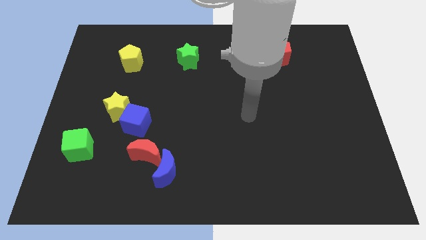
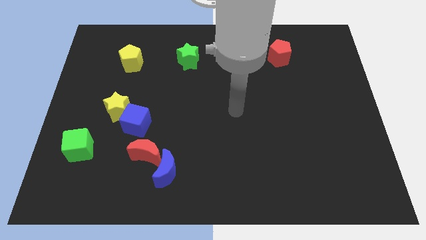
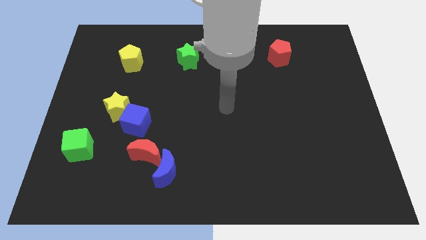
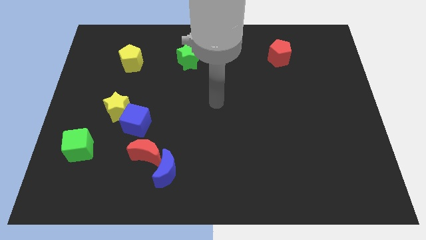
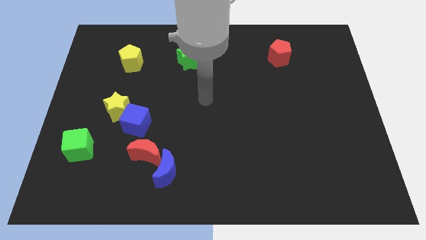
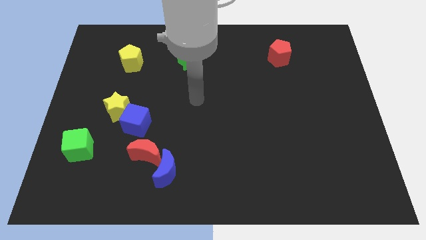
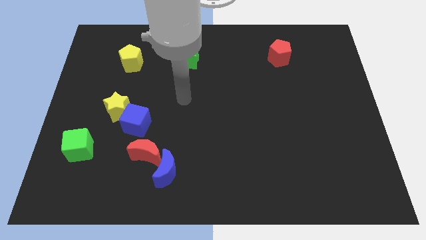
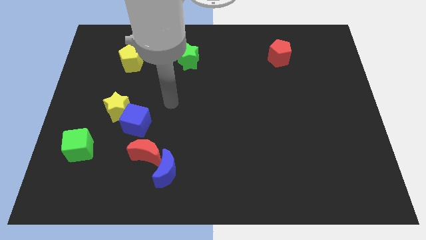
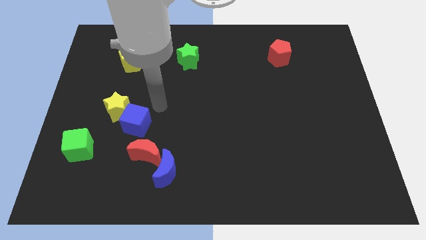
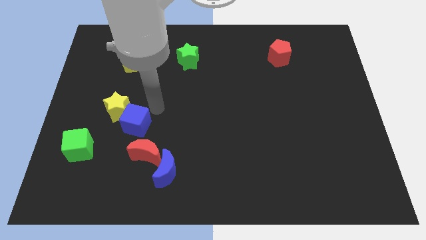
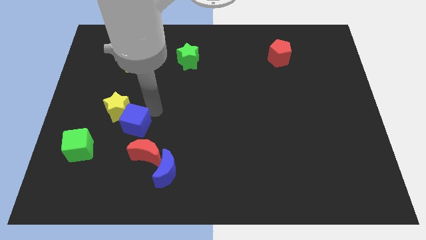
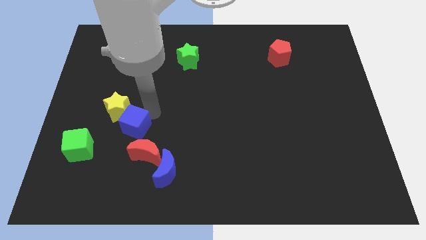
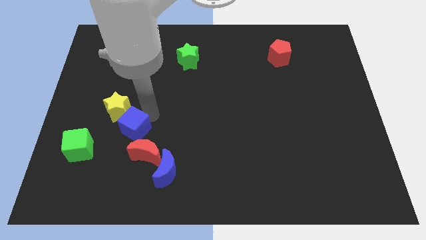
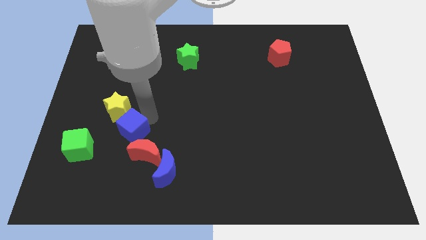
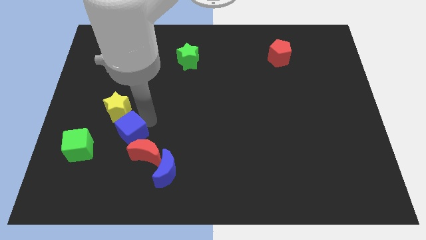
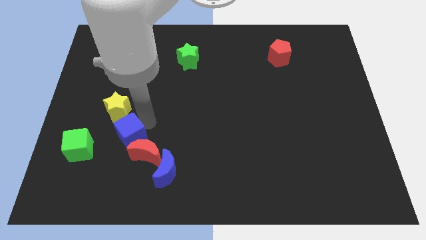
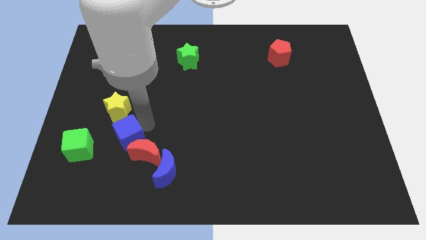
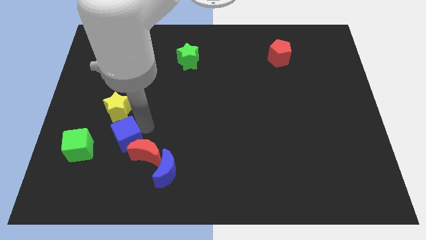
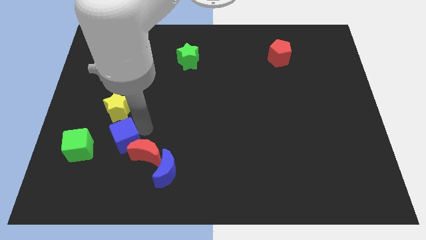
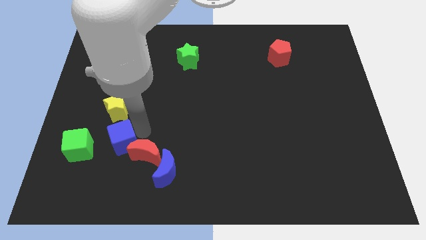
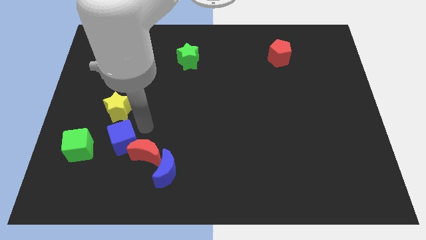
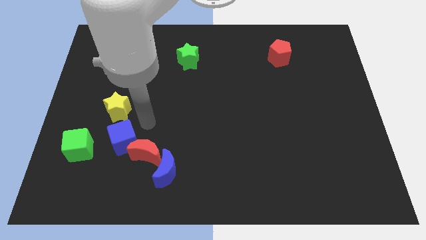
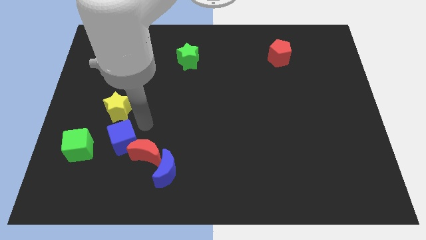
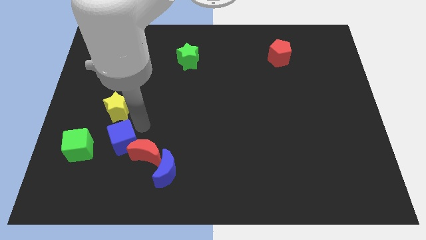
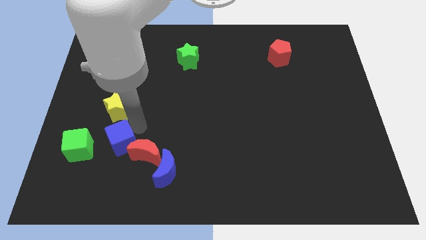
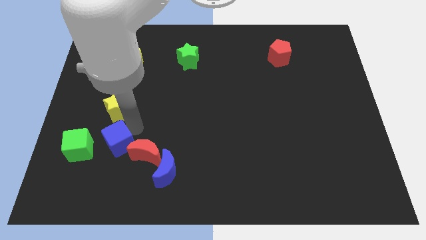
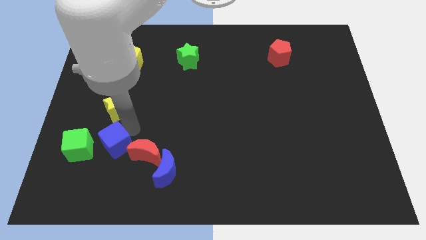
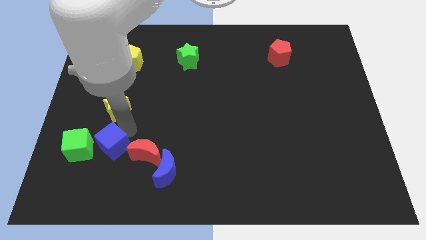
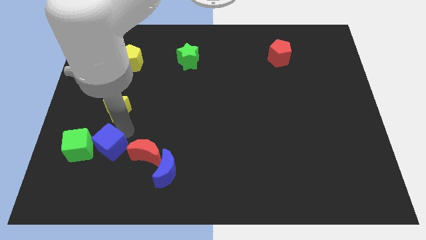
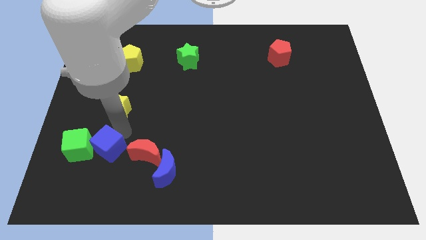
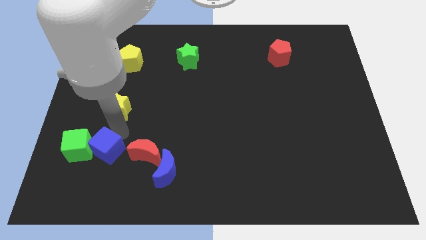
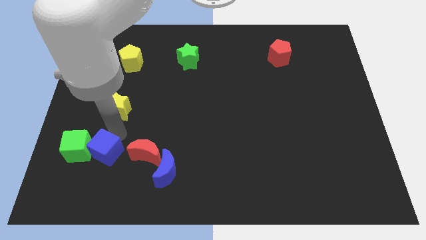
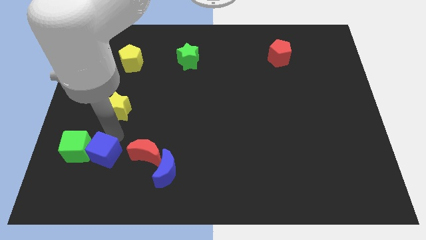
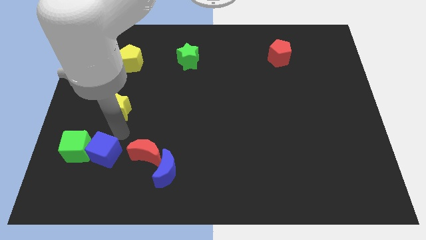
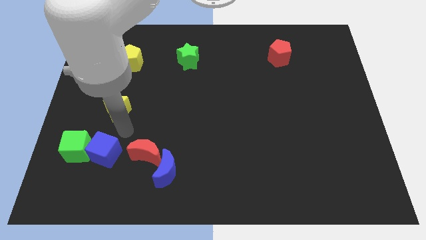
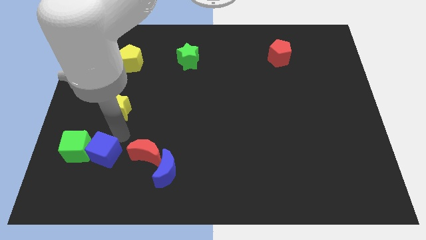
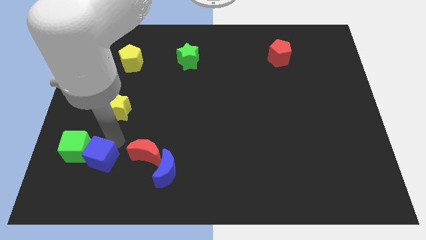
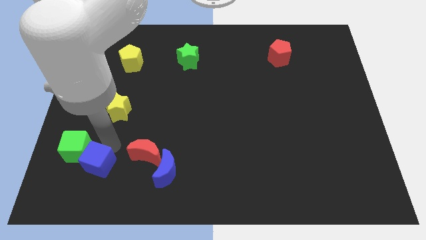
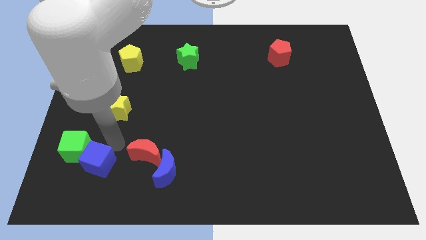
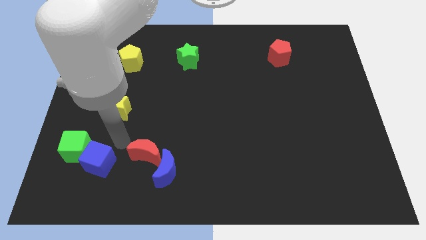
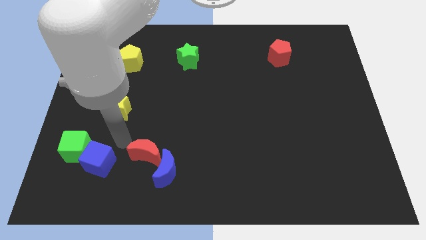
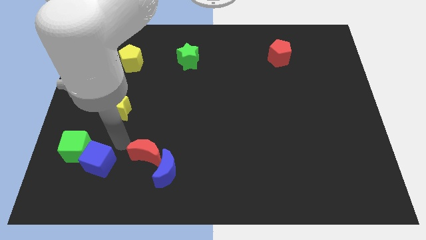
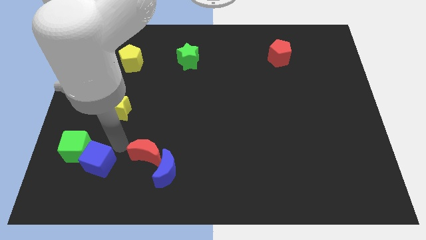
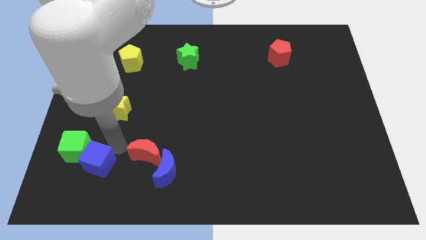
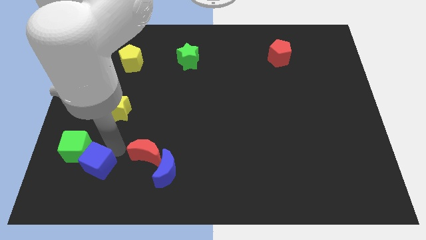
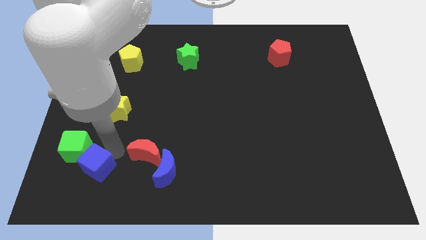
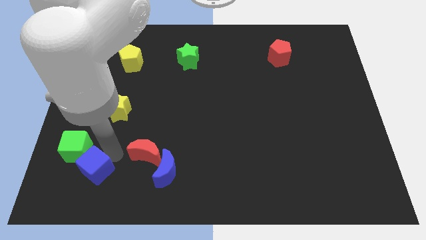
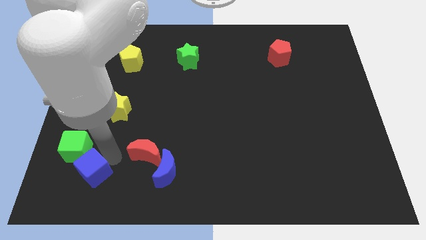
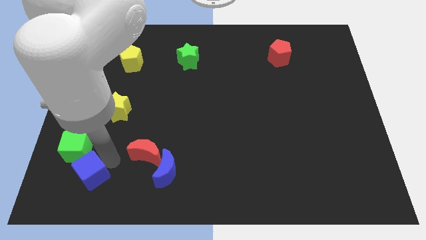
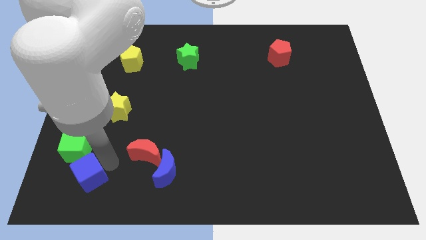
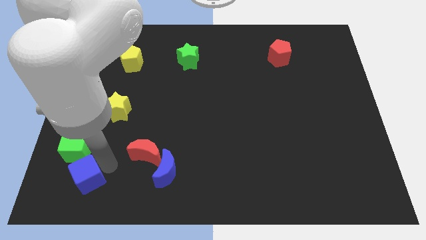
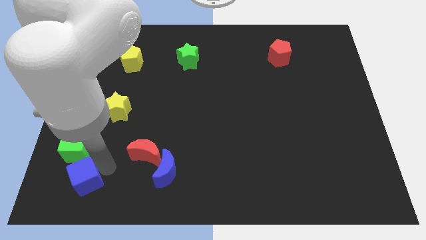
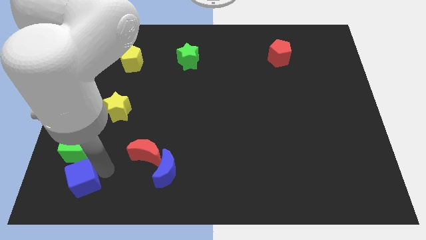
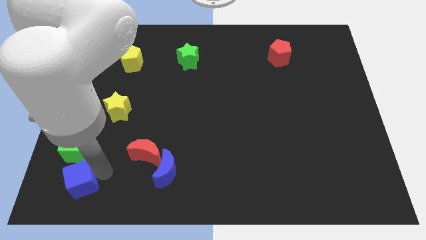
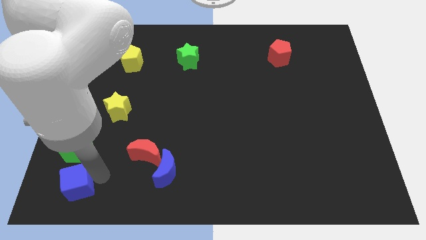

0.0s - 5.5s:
push the blue cube to the bottom left of the board

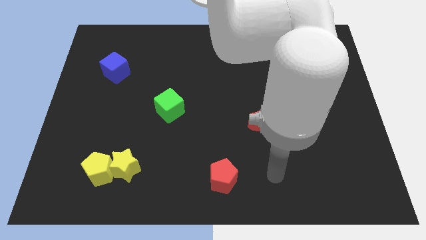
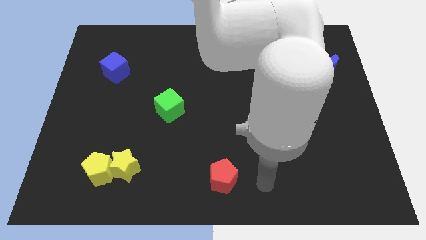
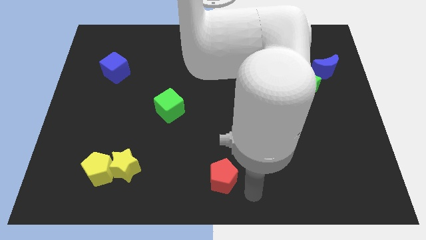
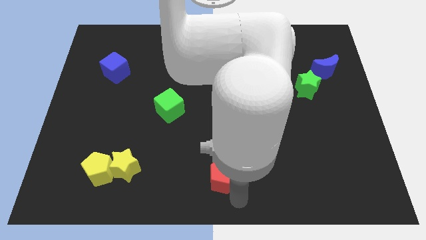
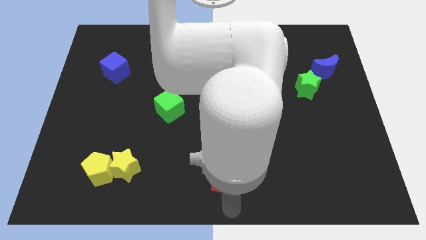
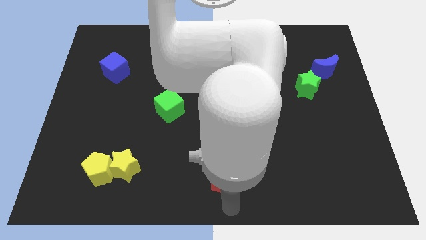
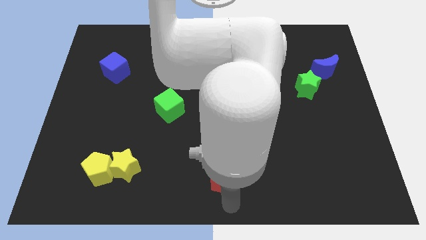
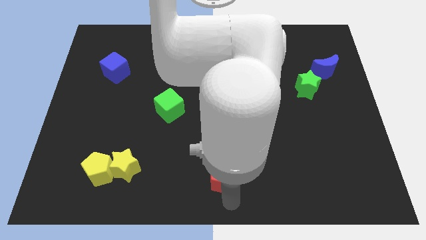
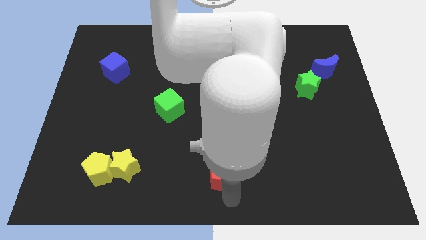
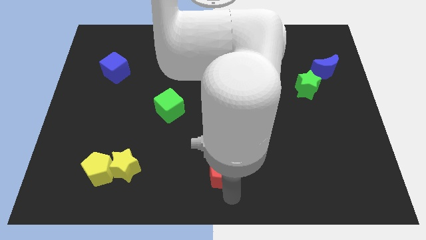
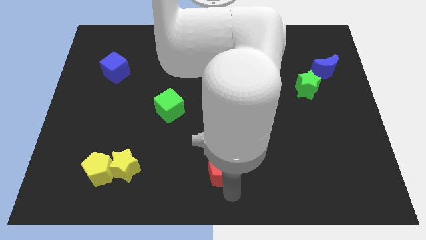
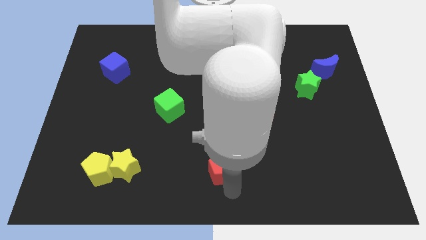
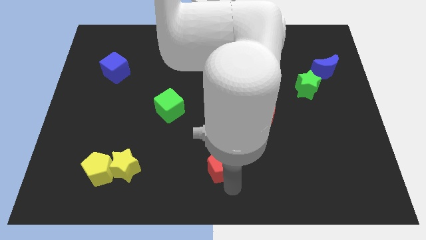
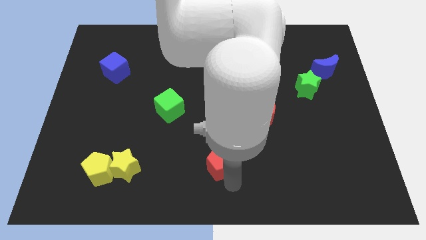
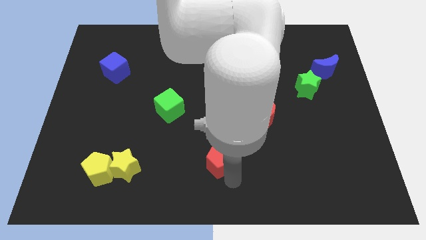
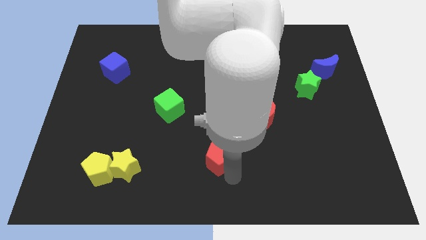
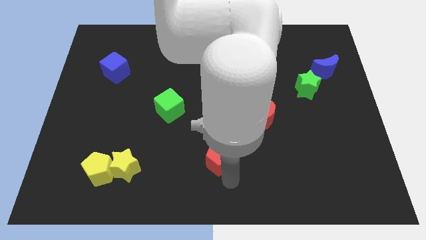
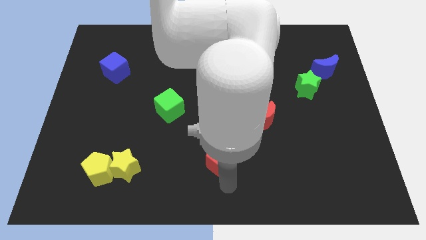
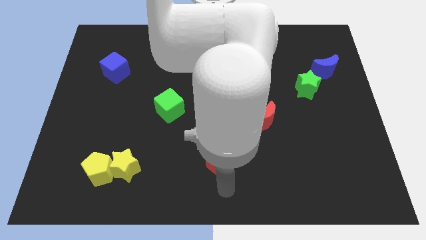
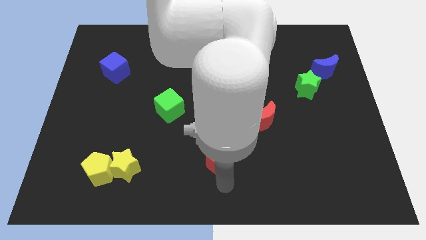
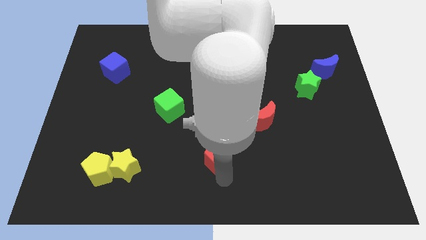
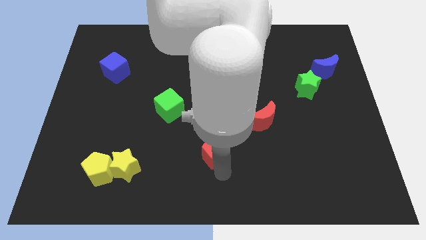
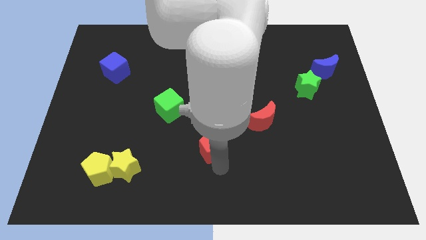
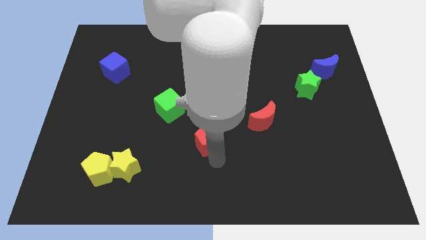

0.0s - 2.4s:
slide the red pentagon to the middle of the board
